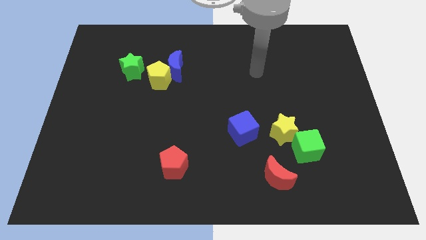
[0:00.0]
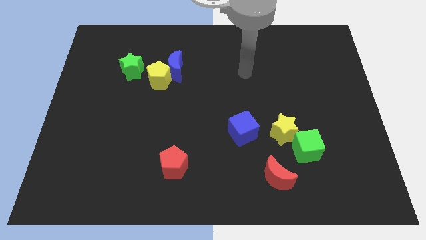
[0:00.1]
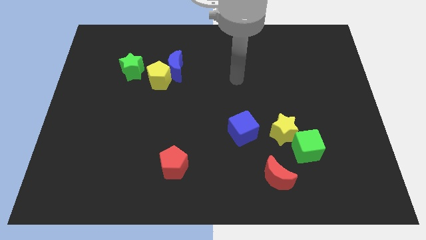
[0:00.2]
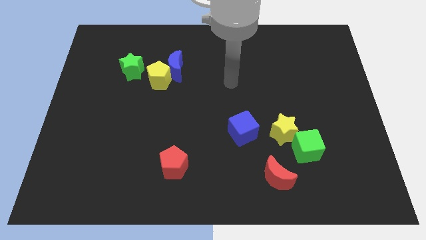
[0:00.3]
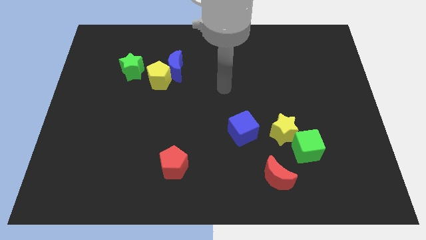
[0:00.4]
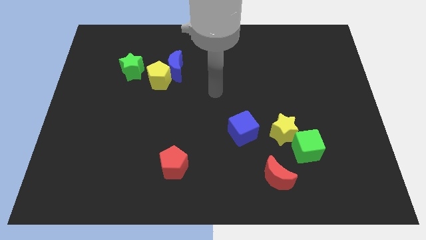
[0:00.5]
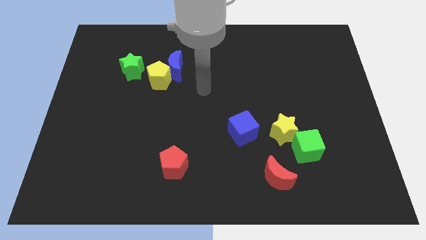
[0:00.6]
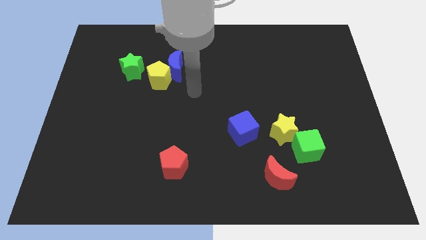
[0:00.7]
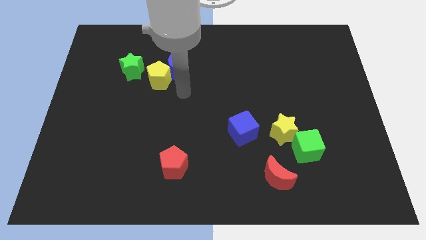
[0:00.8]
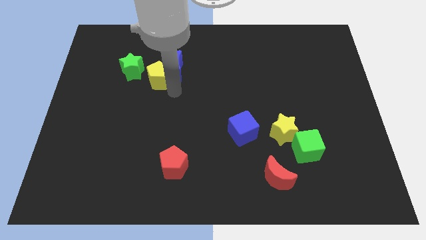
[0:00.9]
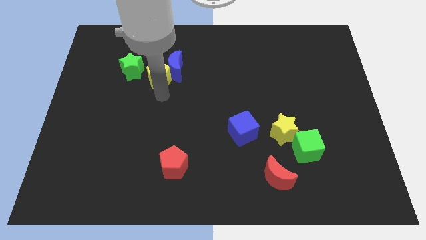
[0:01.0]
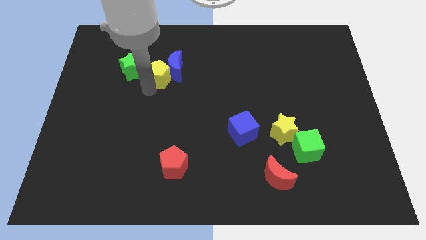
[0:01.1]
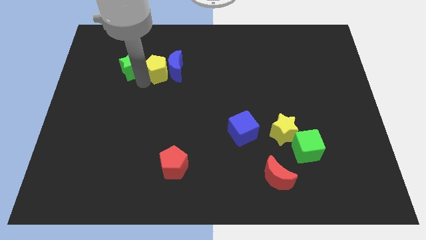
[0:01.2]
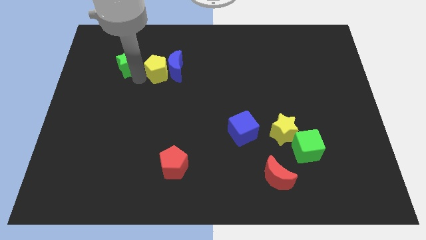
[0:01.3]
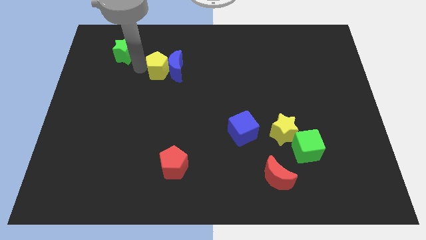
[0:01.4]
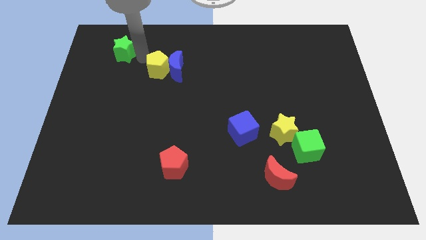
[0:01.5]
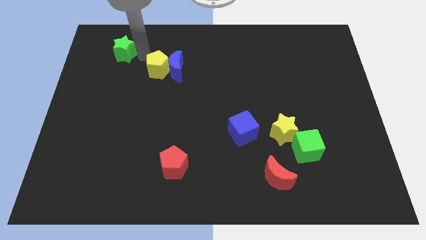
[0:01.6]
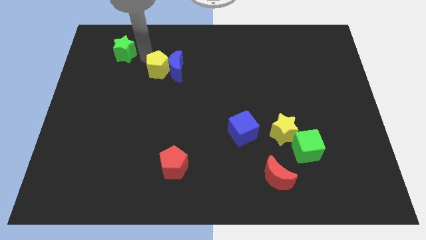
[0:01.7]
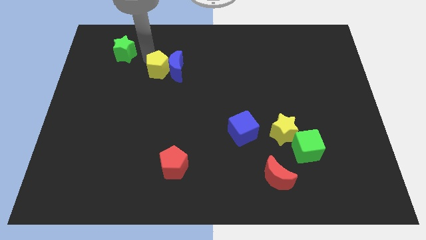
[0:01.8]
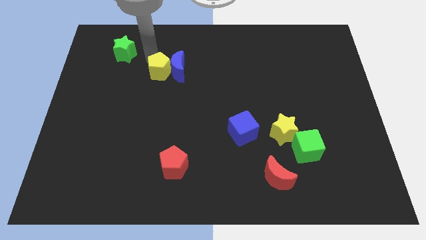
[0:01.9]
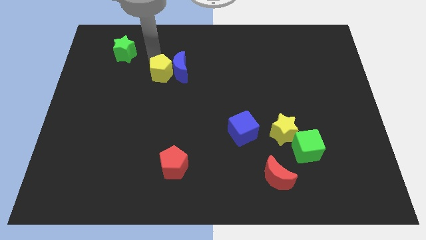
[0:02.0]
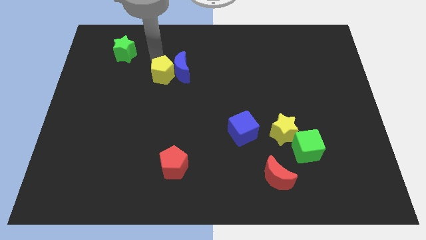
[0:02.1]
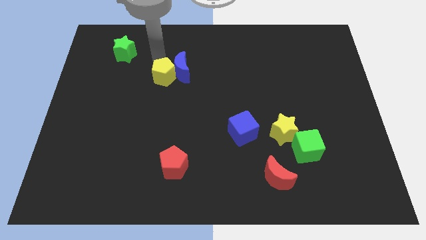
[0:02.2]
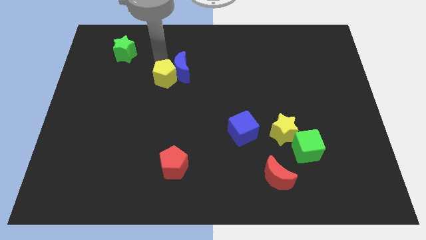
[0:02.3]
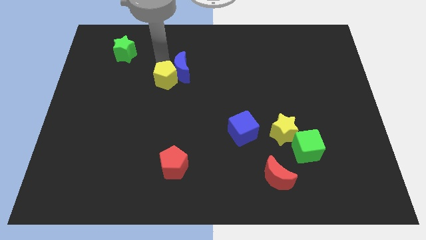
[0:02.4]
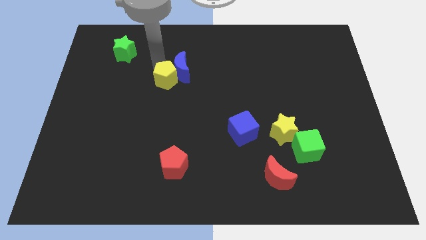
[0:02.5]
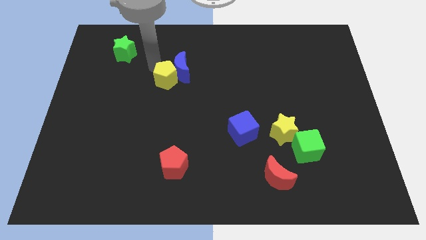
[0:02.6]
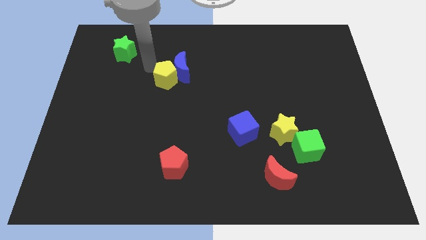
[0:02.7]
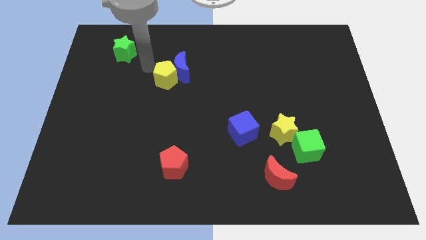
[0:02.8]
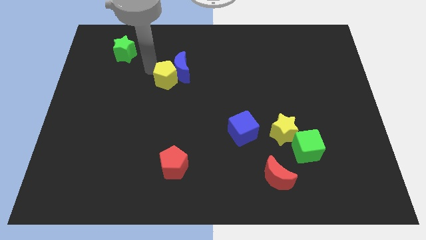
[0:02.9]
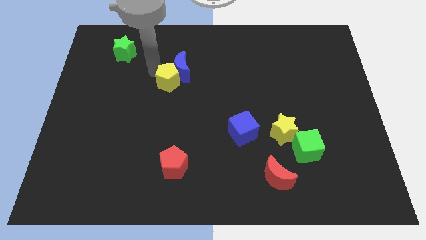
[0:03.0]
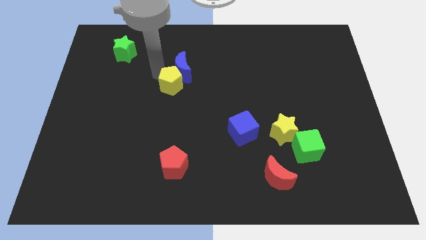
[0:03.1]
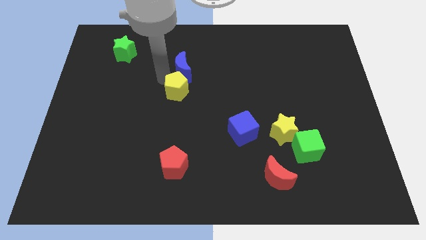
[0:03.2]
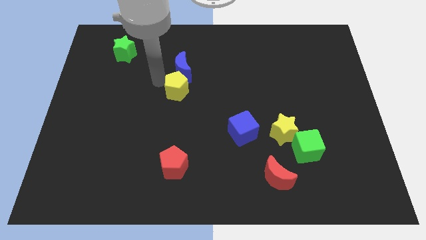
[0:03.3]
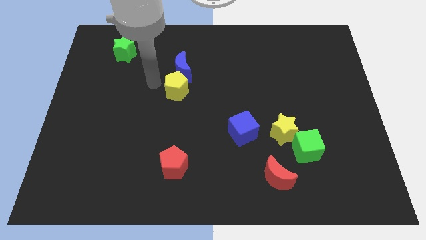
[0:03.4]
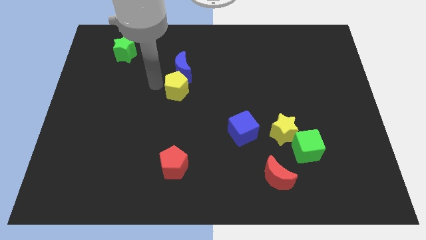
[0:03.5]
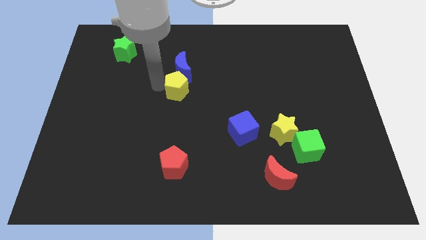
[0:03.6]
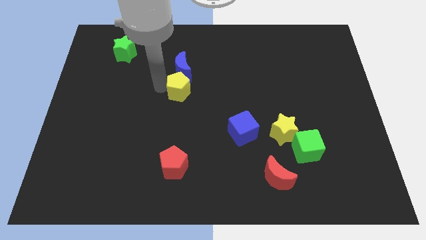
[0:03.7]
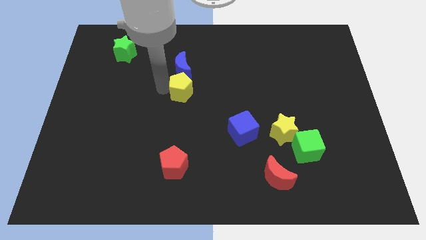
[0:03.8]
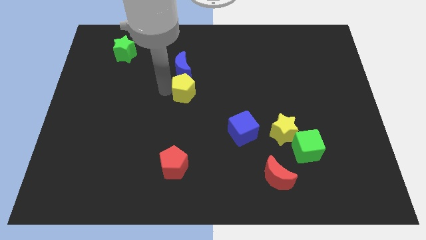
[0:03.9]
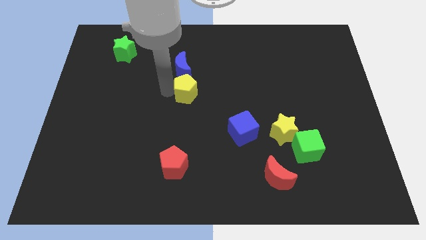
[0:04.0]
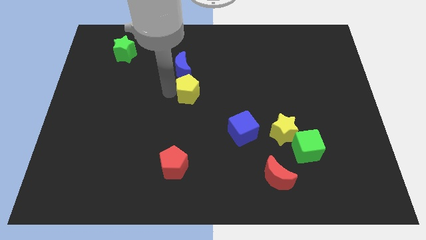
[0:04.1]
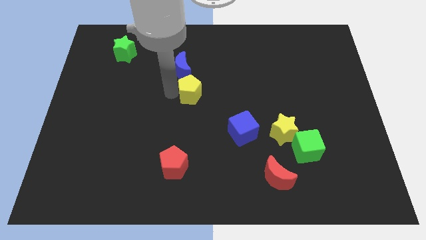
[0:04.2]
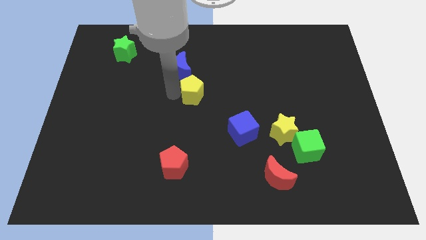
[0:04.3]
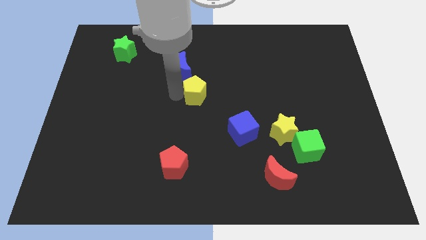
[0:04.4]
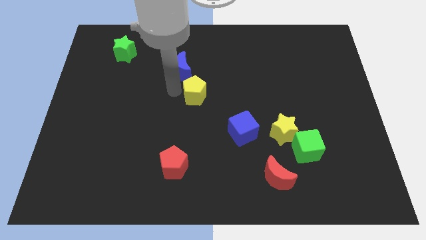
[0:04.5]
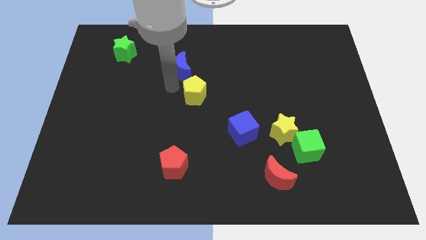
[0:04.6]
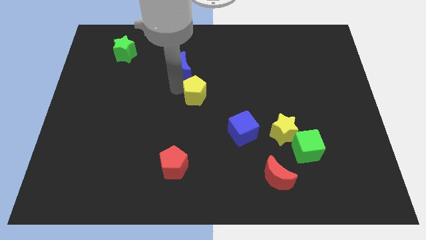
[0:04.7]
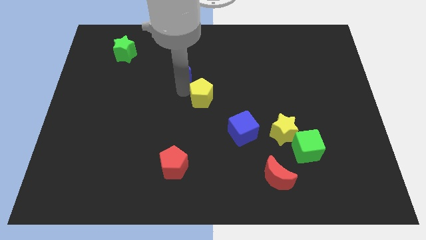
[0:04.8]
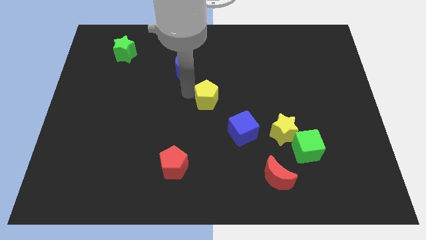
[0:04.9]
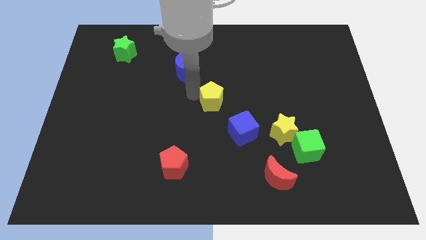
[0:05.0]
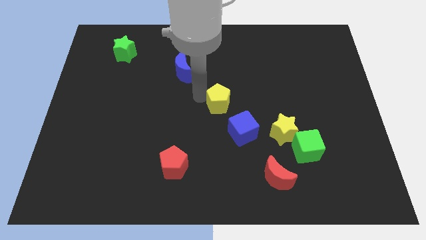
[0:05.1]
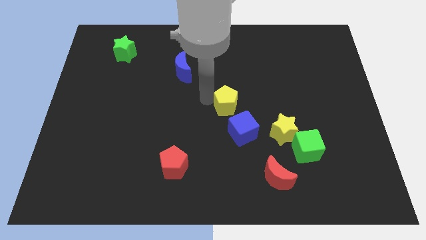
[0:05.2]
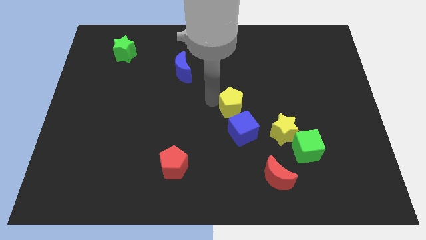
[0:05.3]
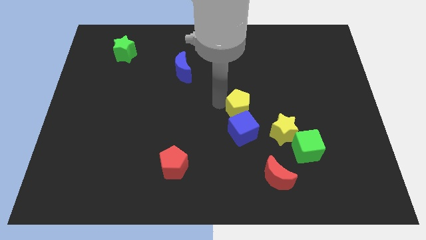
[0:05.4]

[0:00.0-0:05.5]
move the yellow pentagon diagonally up and to the left of the yellow star

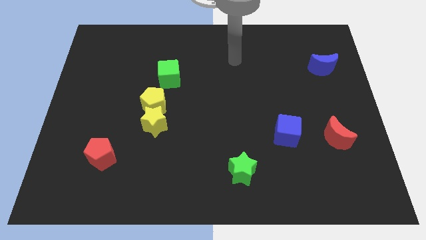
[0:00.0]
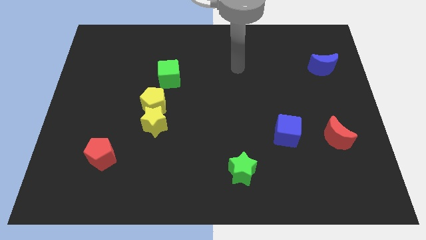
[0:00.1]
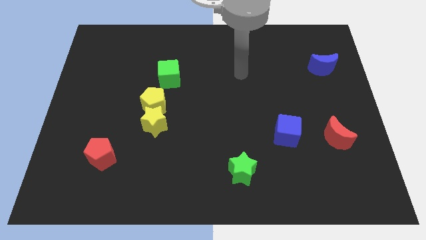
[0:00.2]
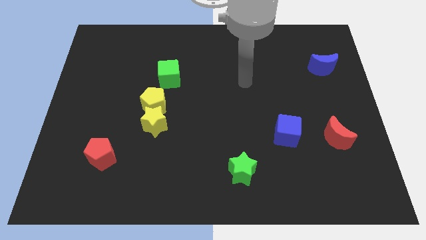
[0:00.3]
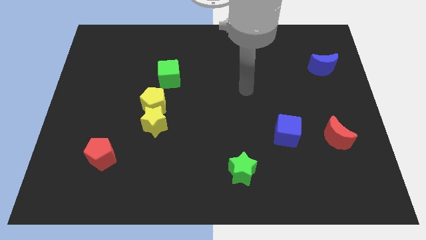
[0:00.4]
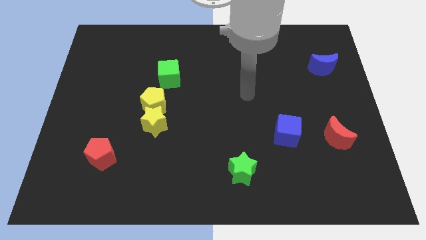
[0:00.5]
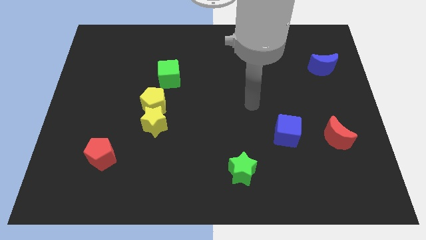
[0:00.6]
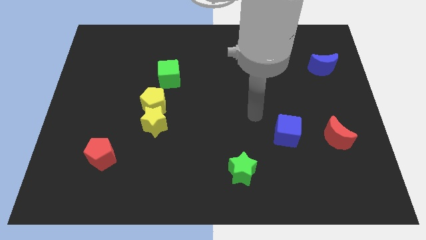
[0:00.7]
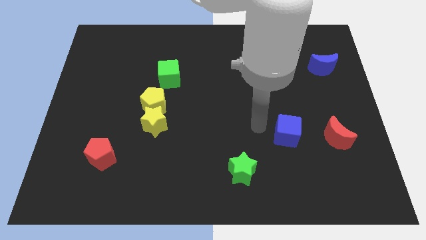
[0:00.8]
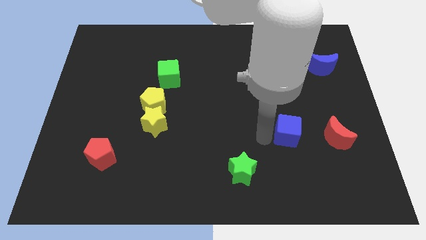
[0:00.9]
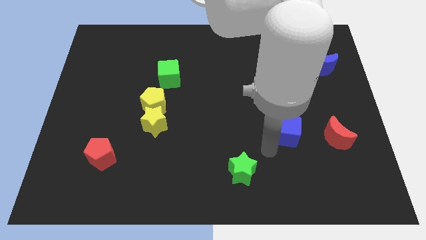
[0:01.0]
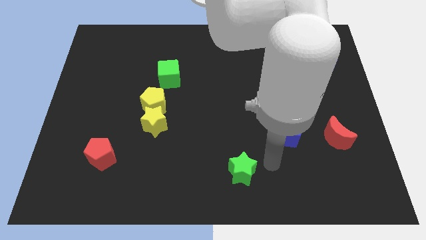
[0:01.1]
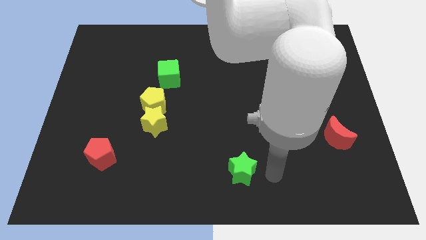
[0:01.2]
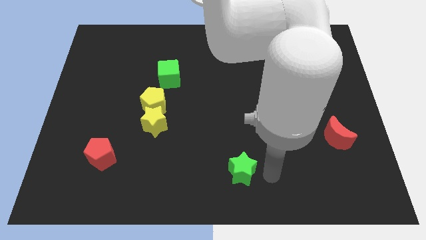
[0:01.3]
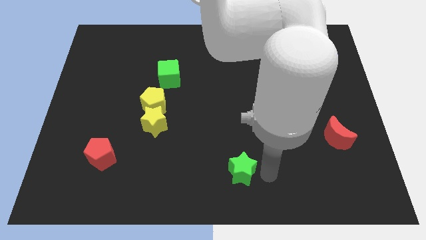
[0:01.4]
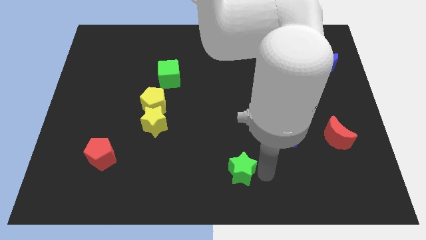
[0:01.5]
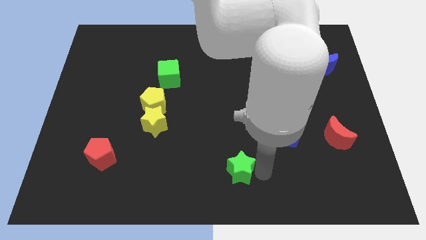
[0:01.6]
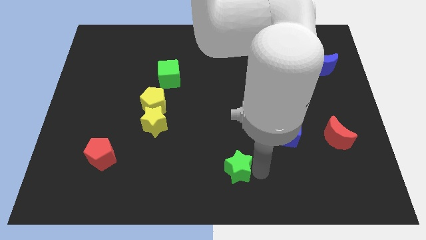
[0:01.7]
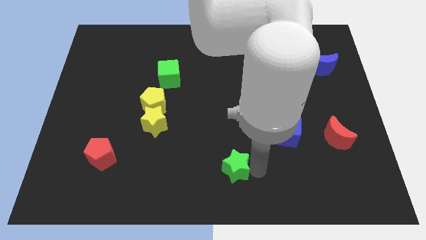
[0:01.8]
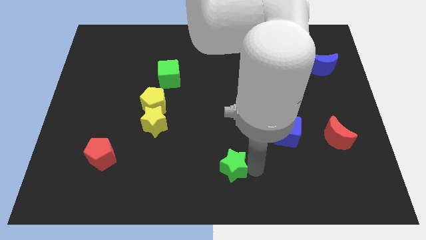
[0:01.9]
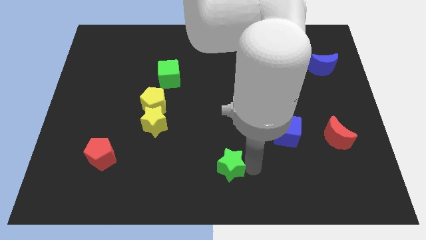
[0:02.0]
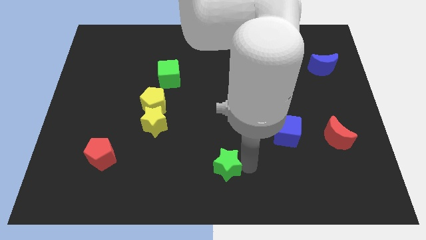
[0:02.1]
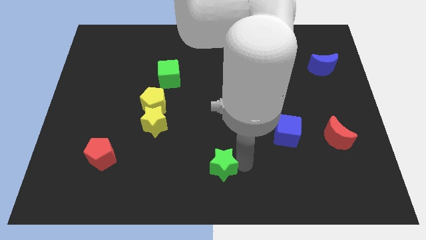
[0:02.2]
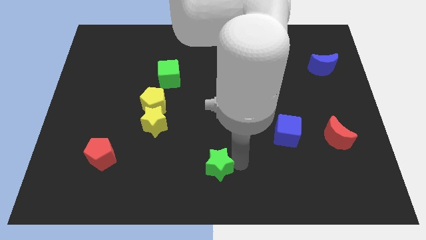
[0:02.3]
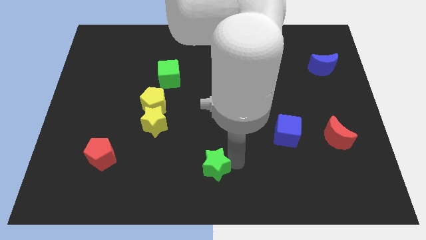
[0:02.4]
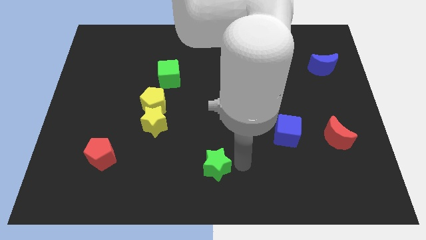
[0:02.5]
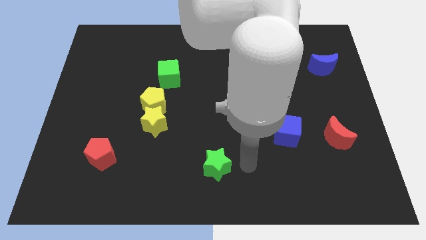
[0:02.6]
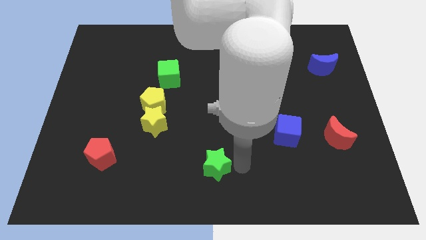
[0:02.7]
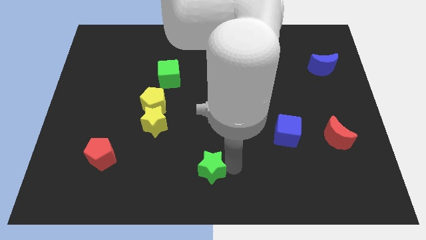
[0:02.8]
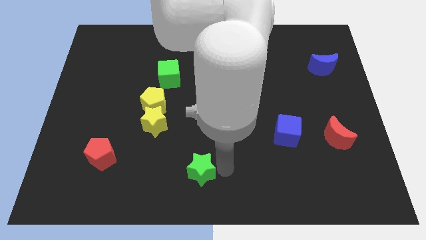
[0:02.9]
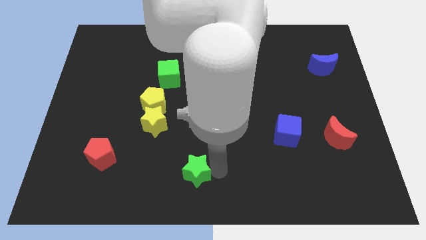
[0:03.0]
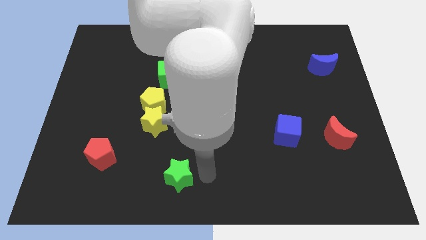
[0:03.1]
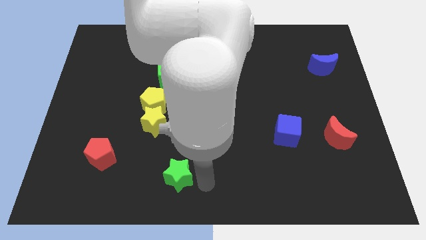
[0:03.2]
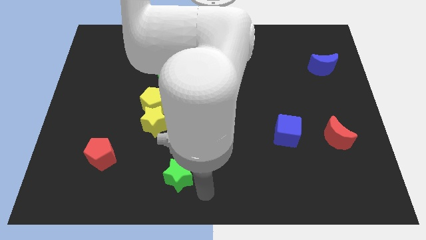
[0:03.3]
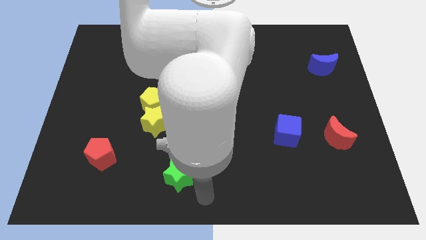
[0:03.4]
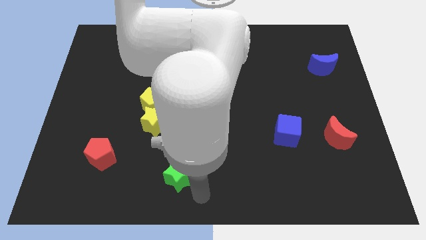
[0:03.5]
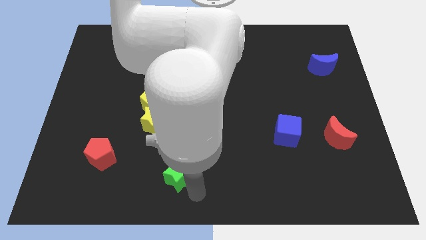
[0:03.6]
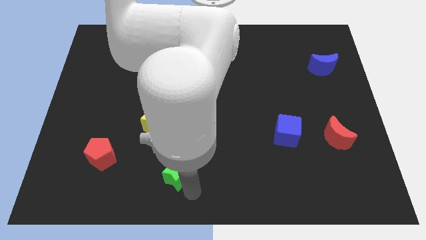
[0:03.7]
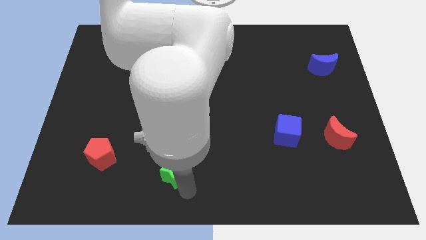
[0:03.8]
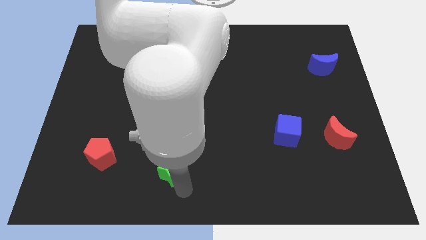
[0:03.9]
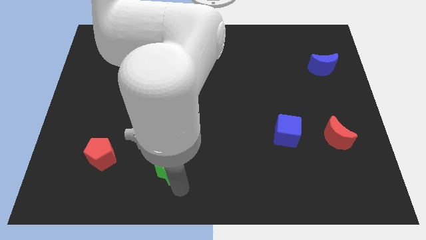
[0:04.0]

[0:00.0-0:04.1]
slide the green star just right of the red pentagon
